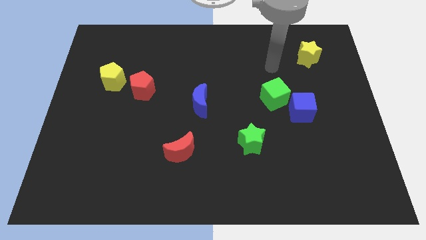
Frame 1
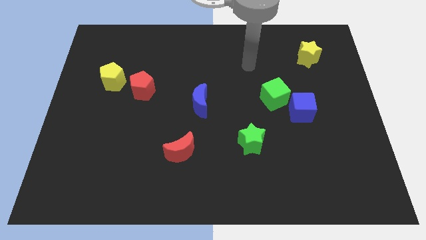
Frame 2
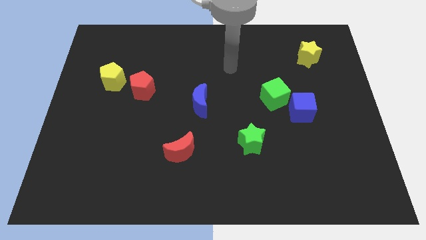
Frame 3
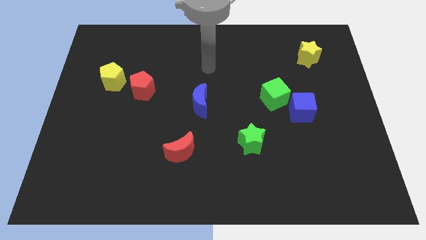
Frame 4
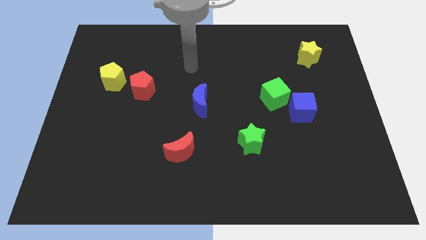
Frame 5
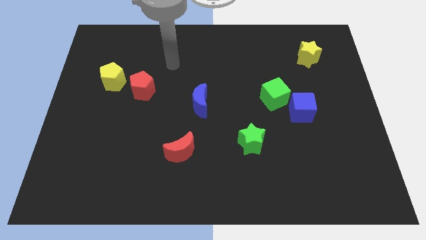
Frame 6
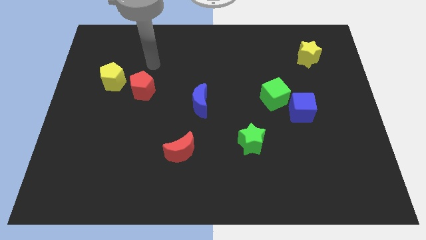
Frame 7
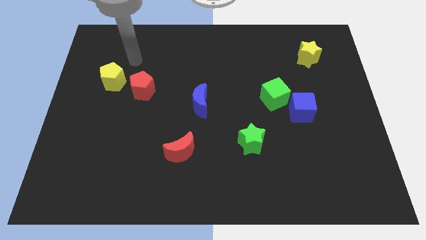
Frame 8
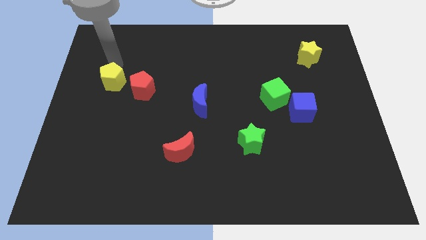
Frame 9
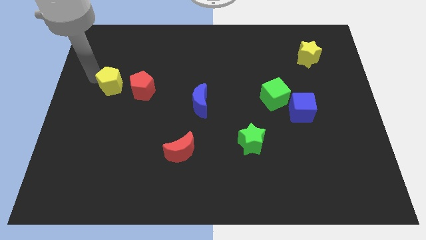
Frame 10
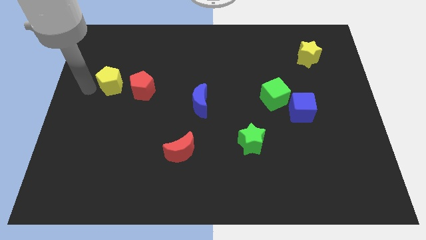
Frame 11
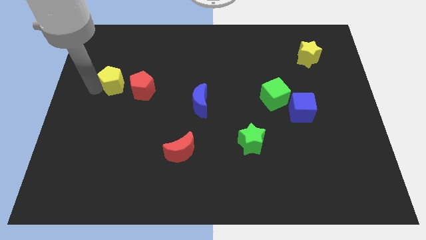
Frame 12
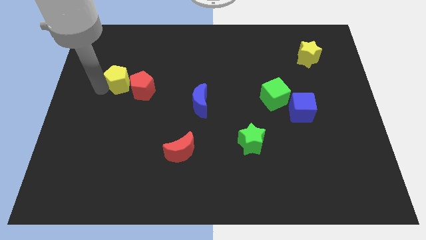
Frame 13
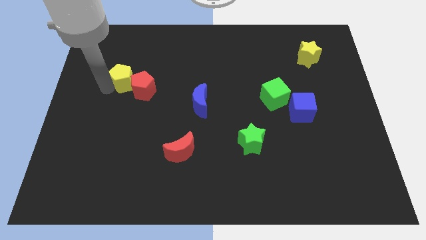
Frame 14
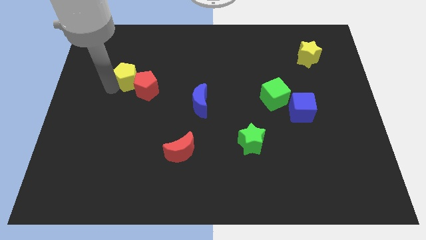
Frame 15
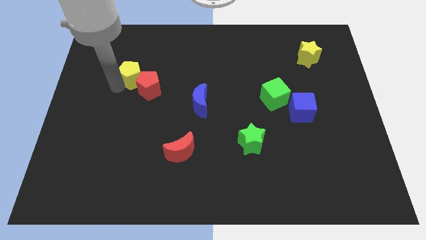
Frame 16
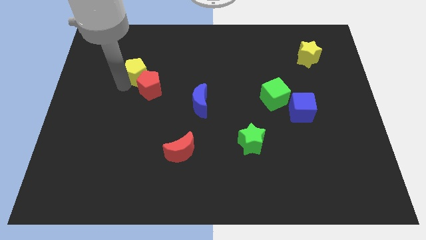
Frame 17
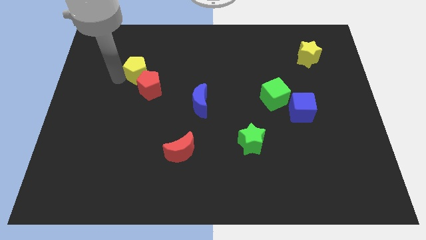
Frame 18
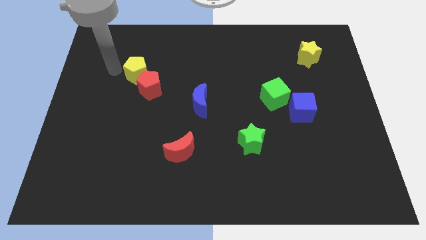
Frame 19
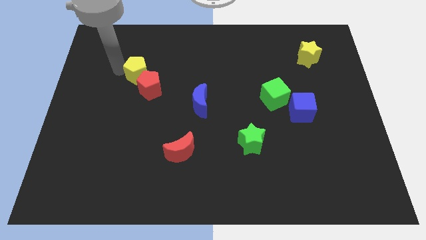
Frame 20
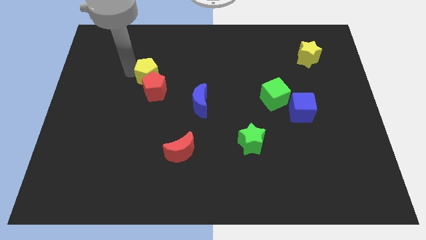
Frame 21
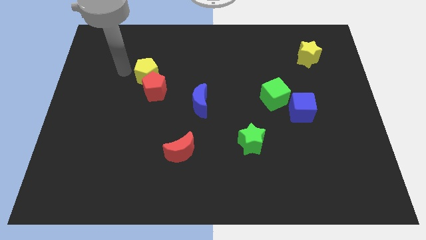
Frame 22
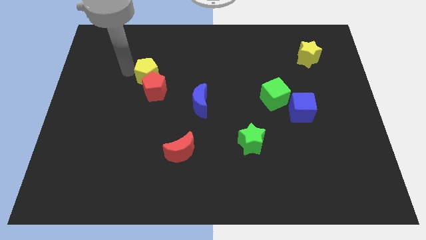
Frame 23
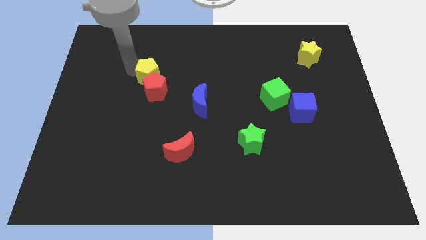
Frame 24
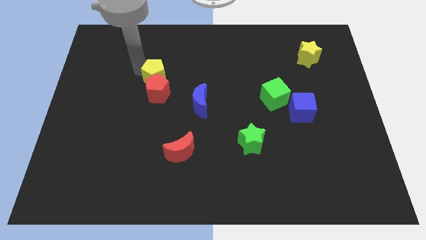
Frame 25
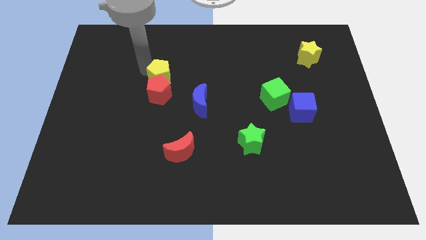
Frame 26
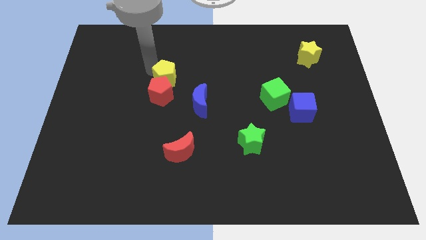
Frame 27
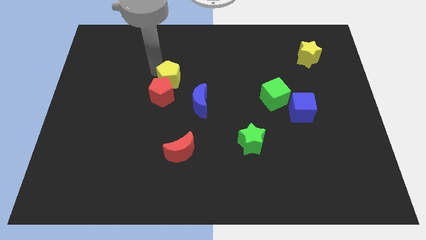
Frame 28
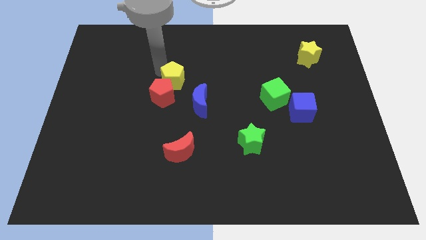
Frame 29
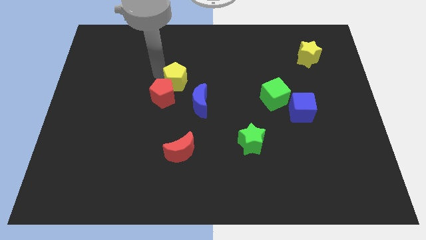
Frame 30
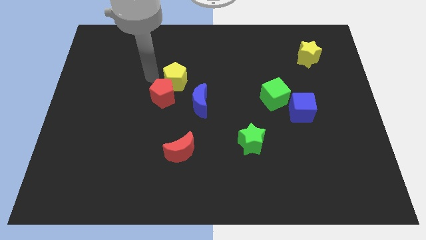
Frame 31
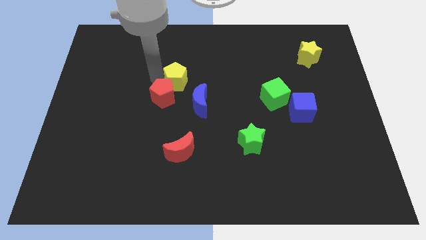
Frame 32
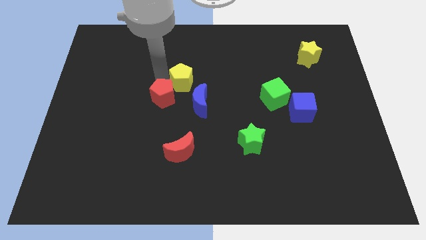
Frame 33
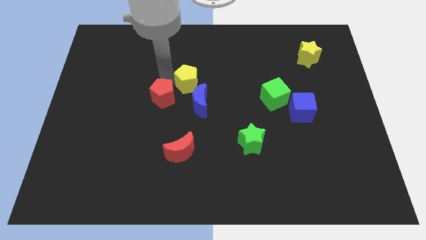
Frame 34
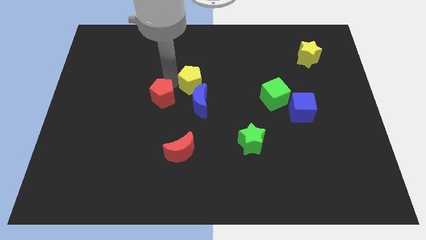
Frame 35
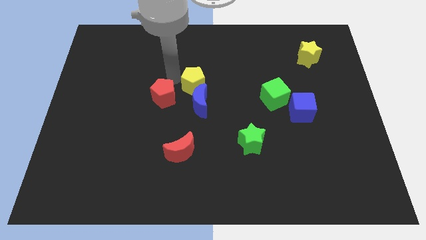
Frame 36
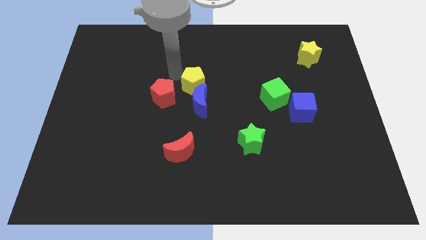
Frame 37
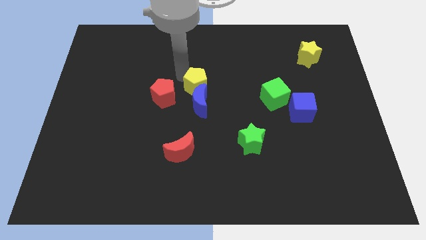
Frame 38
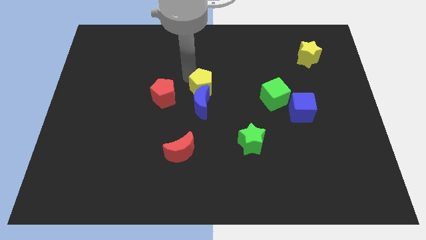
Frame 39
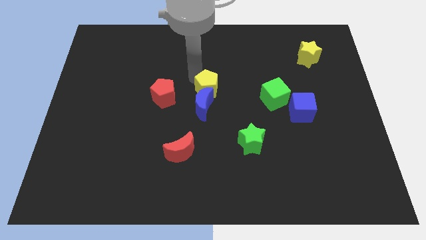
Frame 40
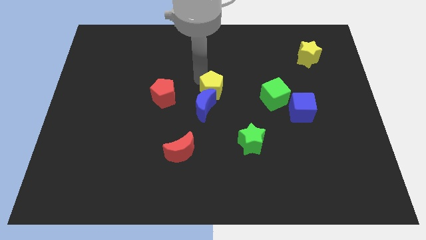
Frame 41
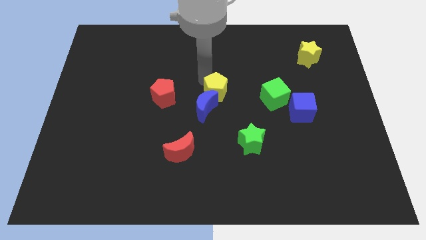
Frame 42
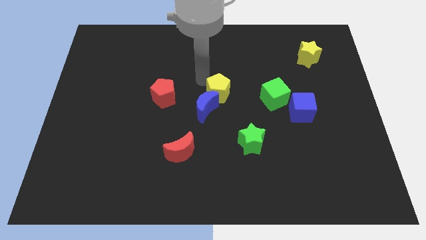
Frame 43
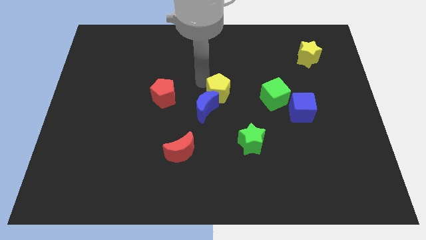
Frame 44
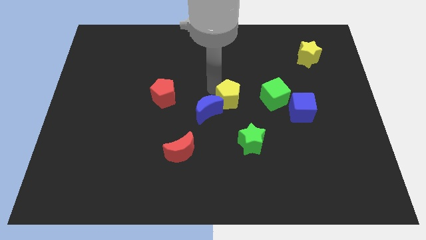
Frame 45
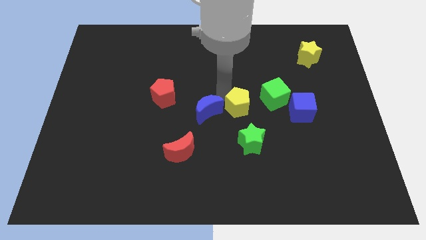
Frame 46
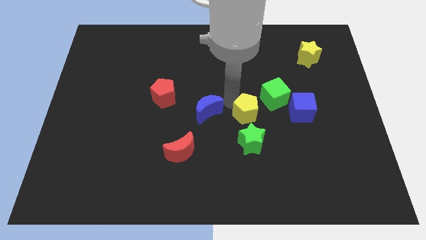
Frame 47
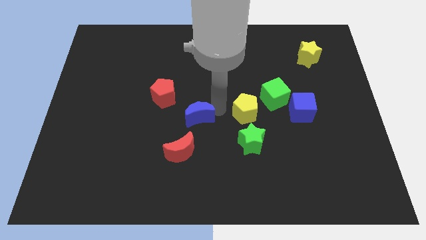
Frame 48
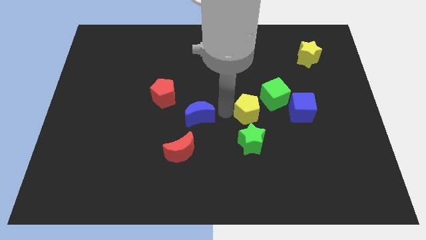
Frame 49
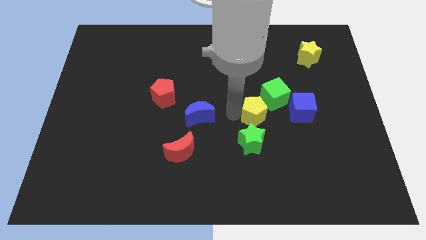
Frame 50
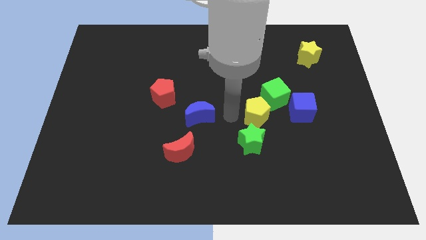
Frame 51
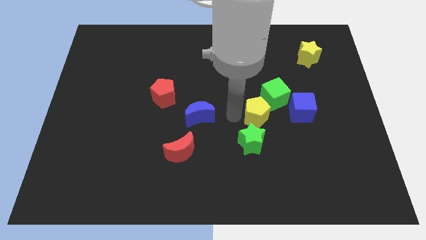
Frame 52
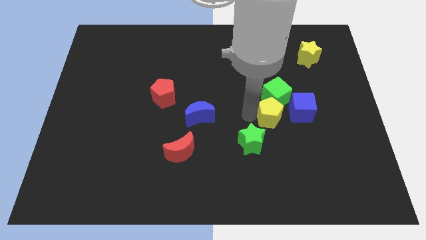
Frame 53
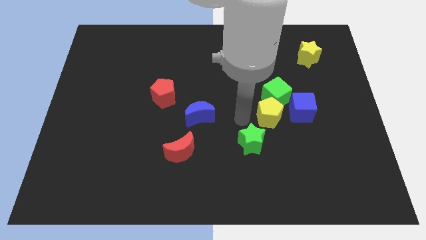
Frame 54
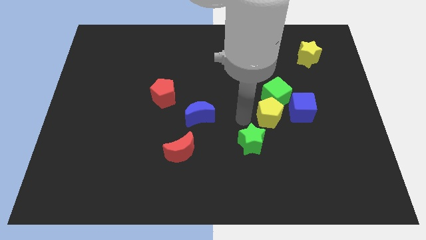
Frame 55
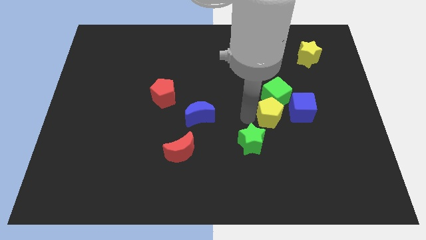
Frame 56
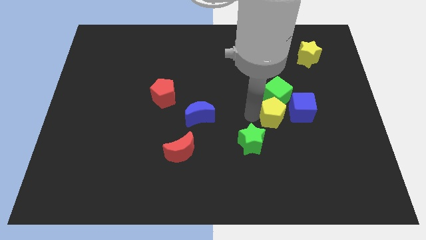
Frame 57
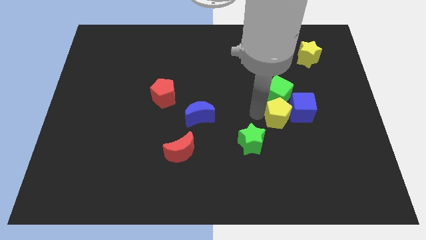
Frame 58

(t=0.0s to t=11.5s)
put the yellow pentagon close to the blue cube

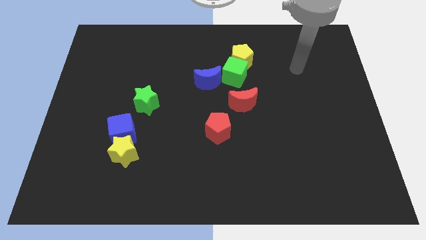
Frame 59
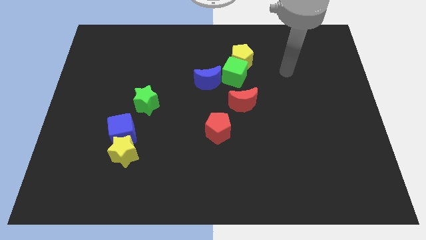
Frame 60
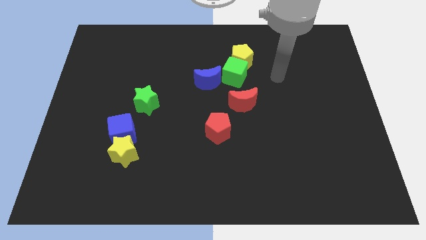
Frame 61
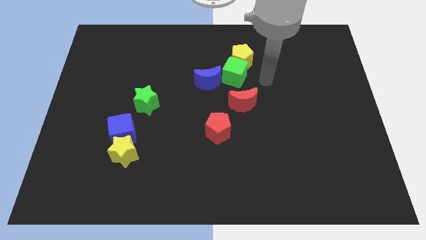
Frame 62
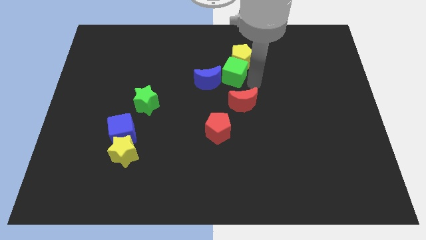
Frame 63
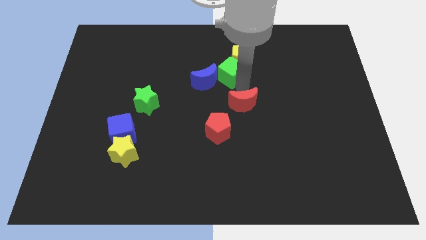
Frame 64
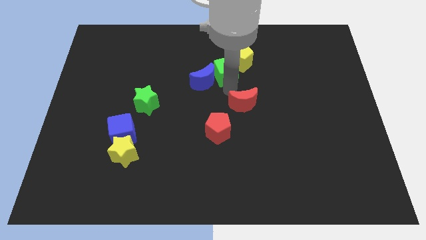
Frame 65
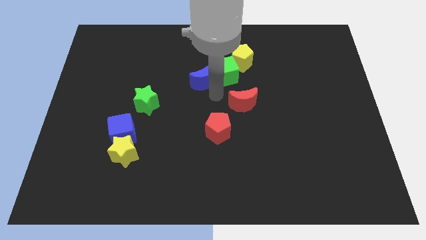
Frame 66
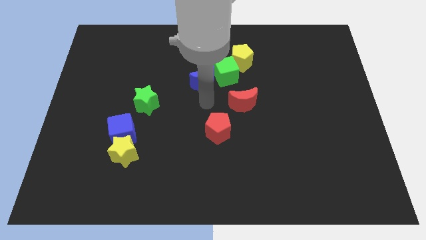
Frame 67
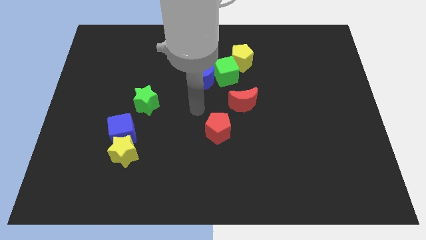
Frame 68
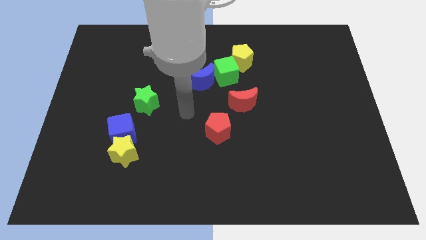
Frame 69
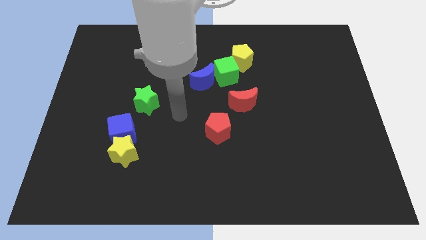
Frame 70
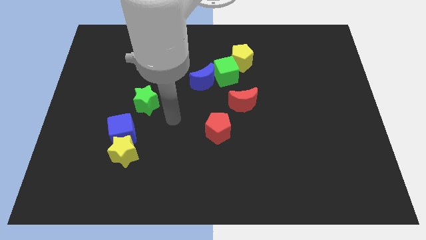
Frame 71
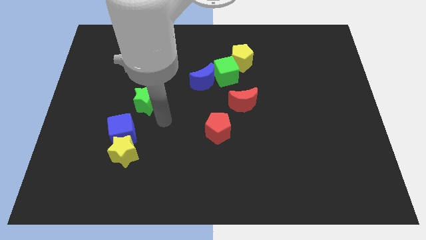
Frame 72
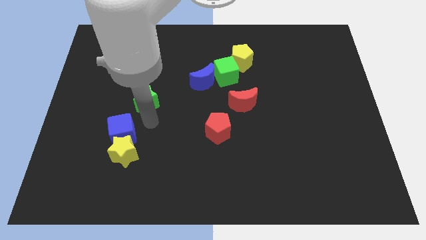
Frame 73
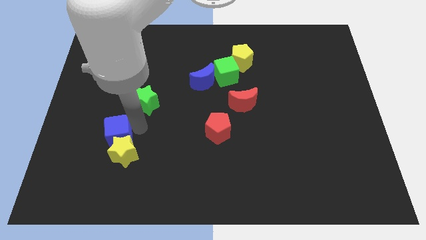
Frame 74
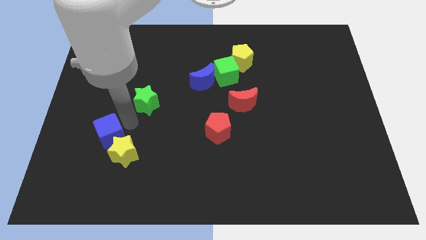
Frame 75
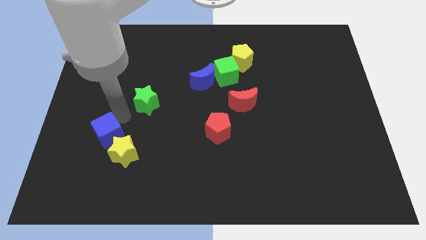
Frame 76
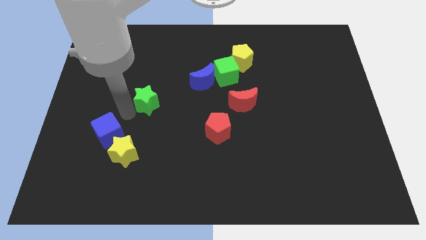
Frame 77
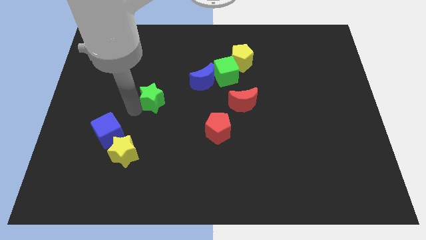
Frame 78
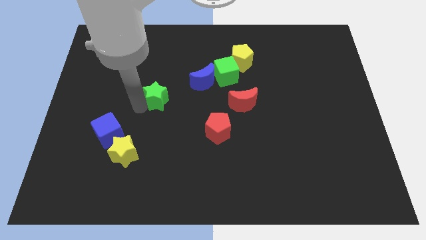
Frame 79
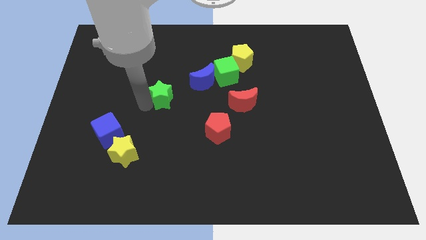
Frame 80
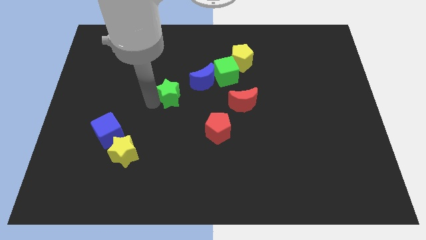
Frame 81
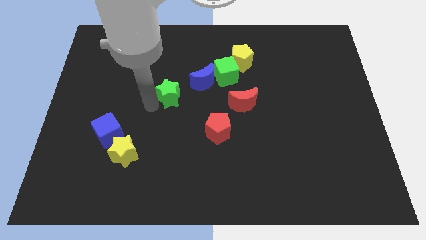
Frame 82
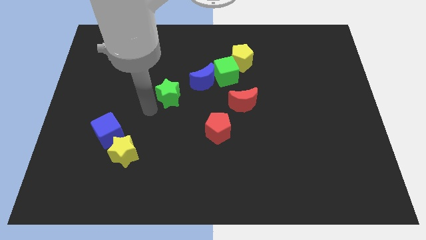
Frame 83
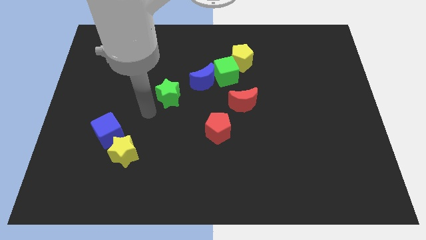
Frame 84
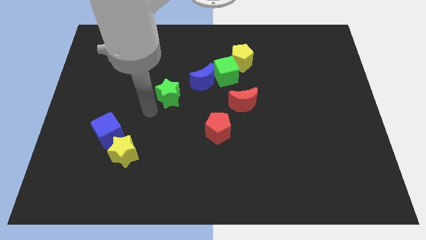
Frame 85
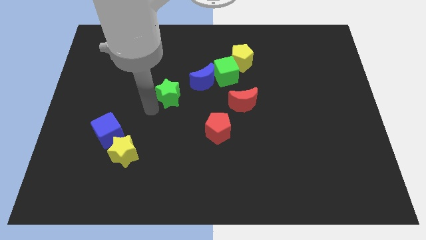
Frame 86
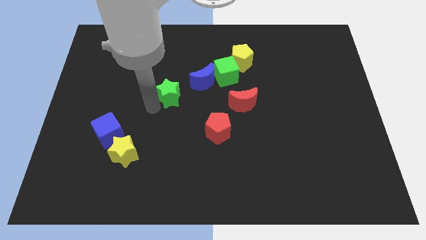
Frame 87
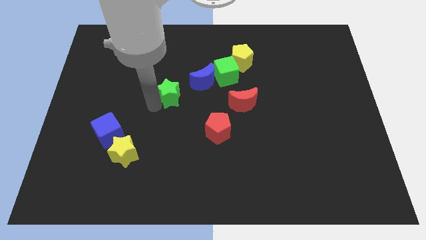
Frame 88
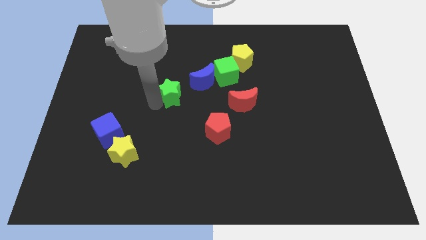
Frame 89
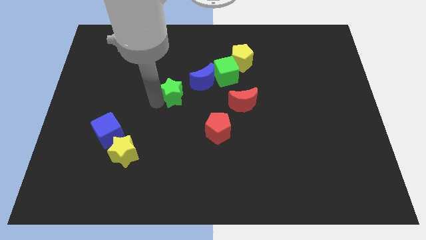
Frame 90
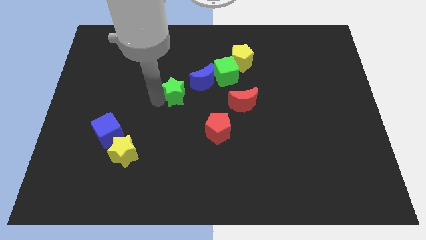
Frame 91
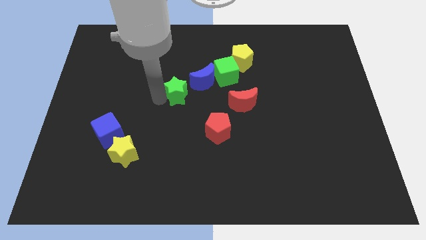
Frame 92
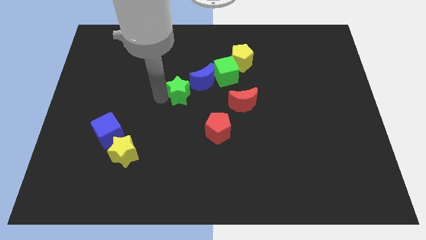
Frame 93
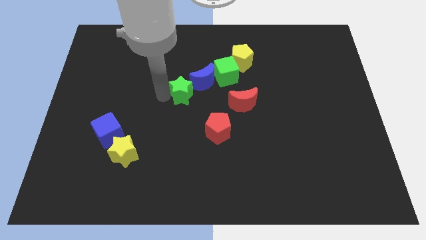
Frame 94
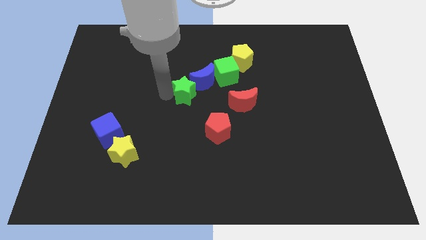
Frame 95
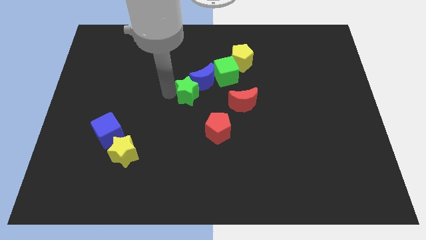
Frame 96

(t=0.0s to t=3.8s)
move the green star to the blue moon
